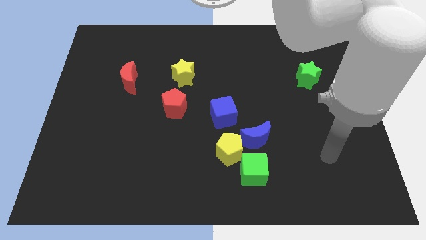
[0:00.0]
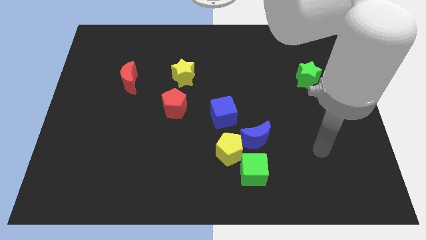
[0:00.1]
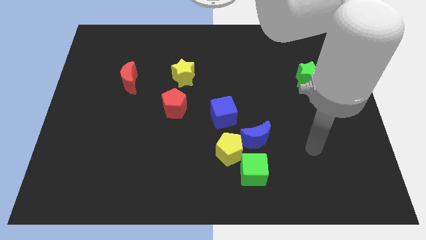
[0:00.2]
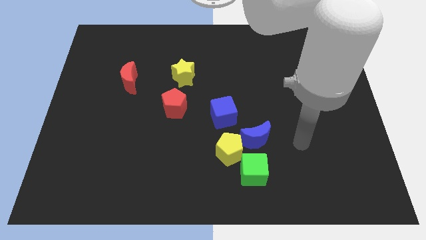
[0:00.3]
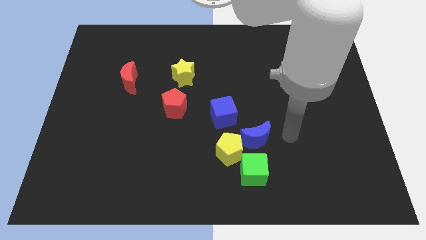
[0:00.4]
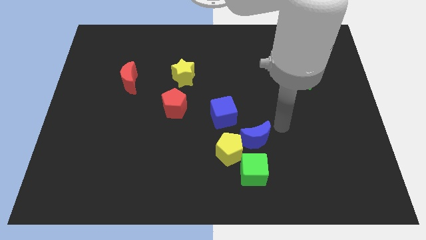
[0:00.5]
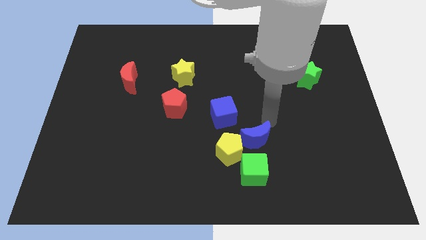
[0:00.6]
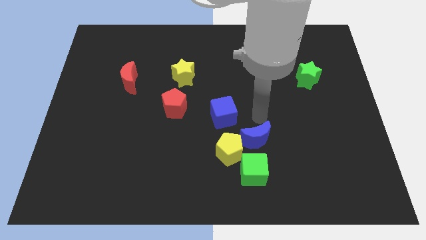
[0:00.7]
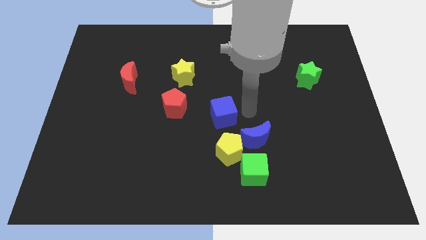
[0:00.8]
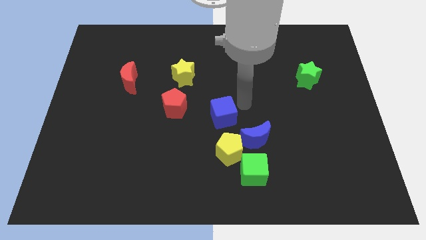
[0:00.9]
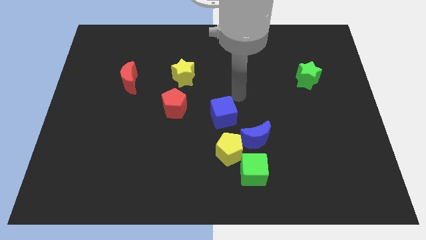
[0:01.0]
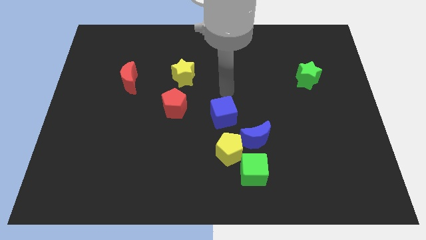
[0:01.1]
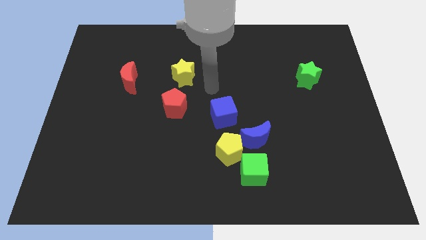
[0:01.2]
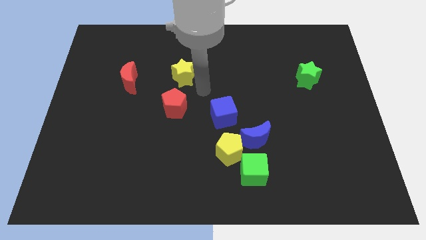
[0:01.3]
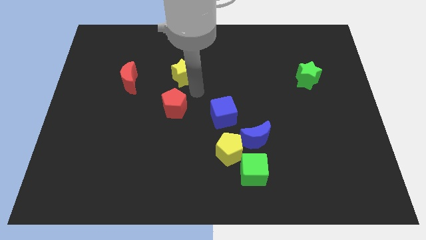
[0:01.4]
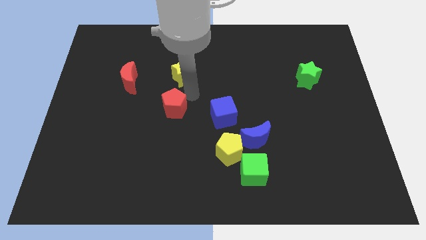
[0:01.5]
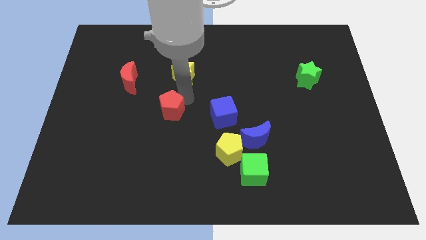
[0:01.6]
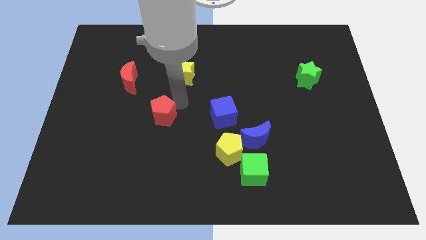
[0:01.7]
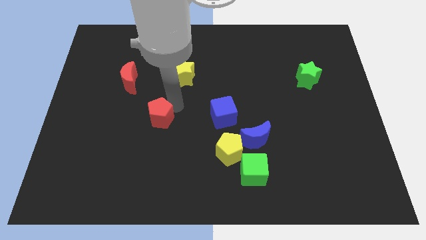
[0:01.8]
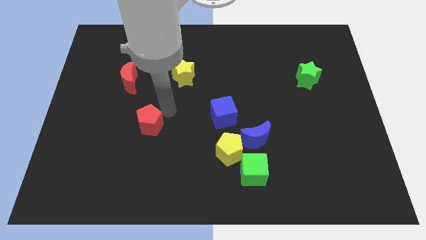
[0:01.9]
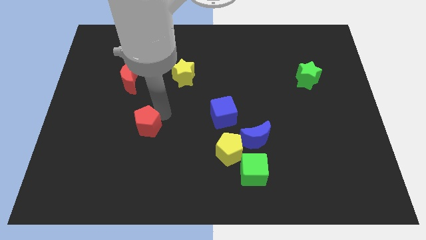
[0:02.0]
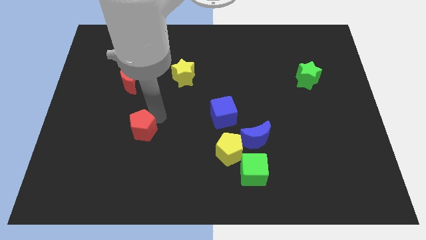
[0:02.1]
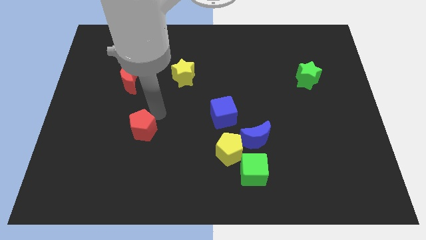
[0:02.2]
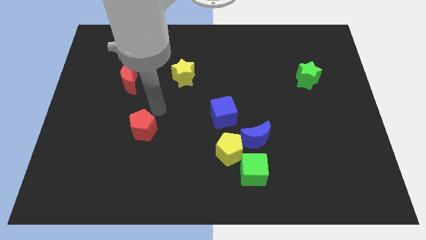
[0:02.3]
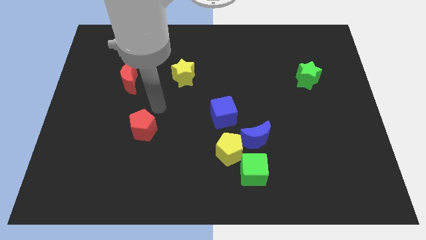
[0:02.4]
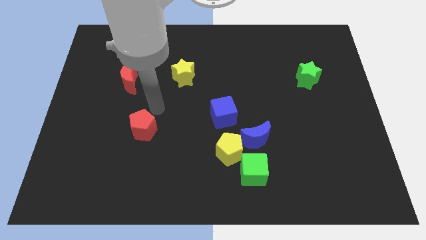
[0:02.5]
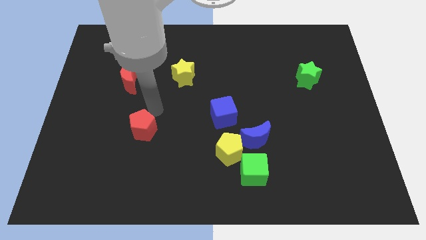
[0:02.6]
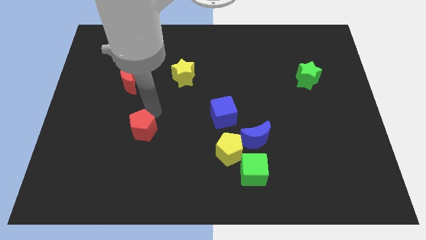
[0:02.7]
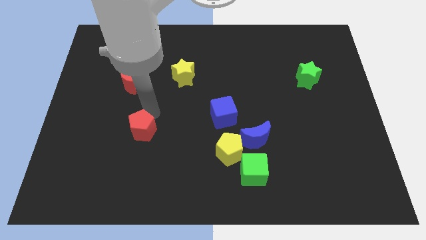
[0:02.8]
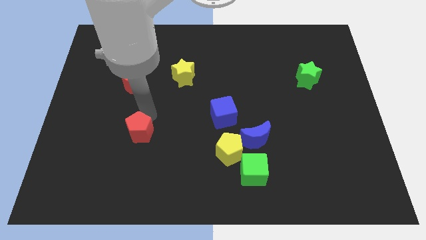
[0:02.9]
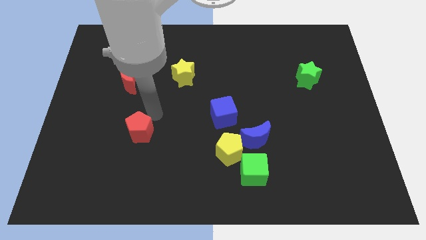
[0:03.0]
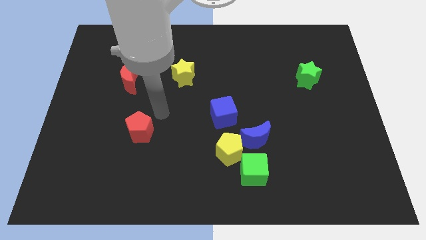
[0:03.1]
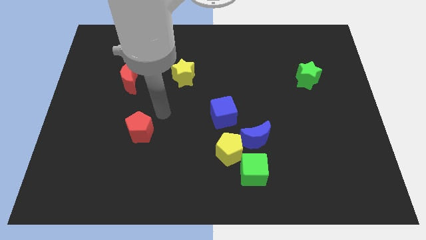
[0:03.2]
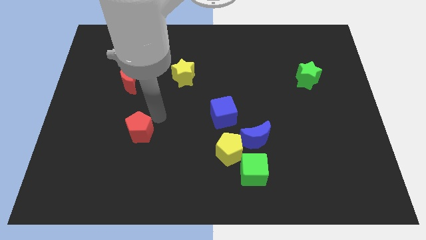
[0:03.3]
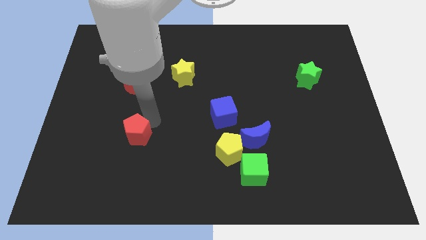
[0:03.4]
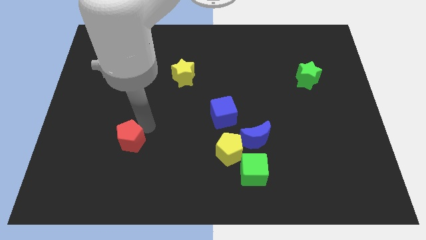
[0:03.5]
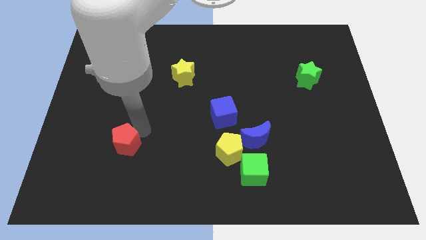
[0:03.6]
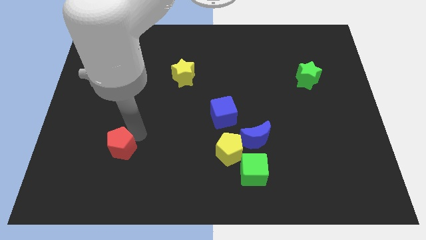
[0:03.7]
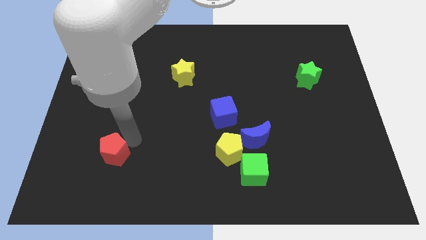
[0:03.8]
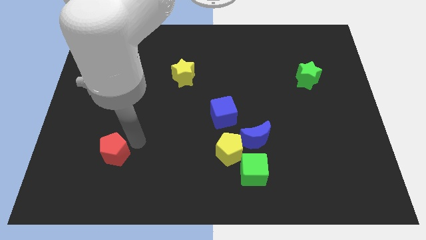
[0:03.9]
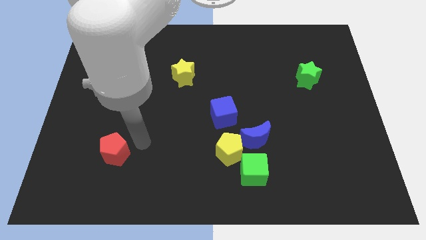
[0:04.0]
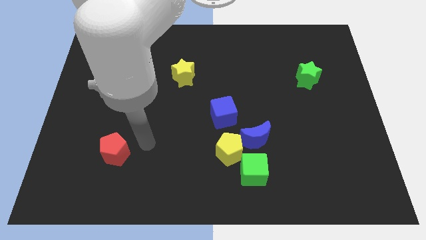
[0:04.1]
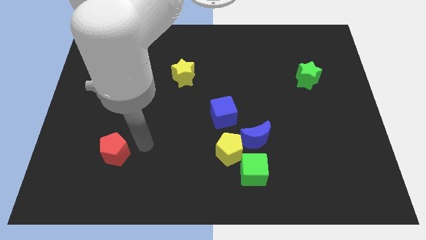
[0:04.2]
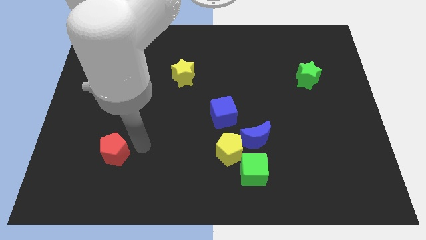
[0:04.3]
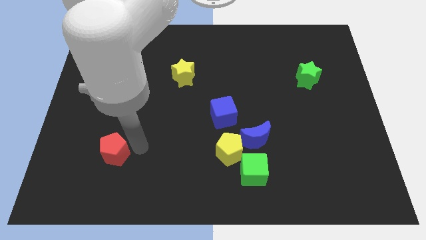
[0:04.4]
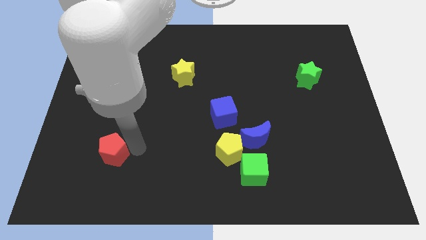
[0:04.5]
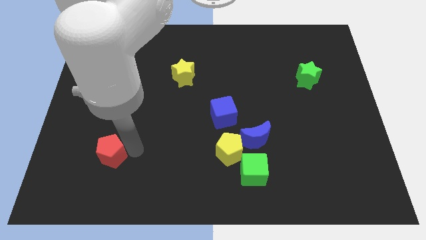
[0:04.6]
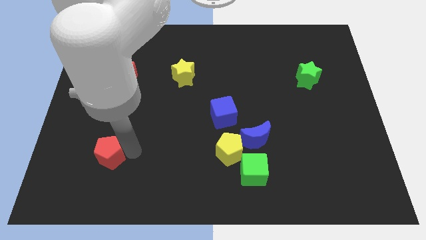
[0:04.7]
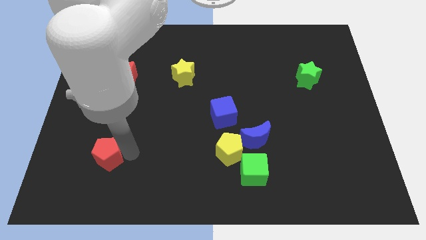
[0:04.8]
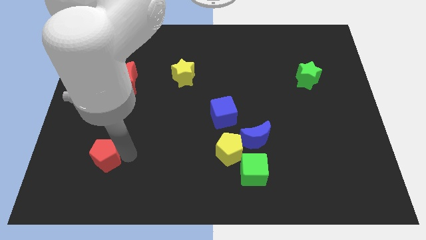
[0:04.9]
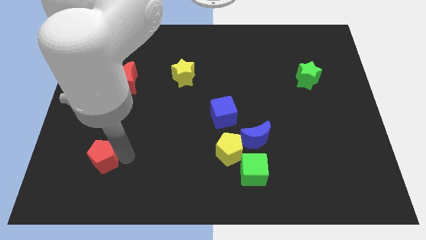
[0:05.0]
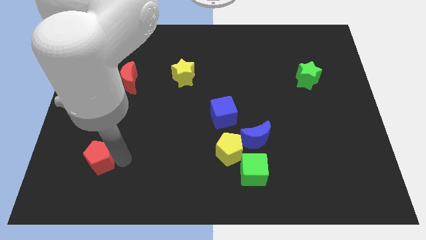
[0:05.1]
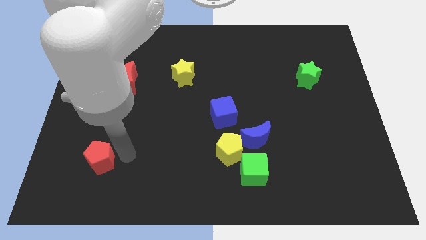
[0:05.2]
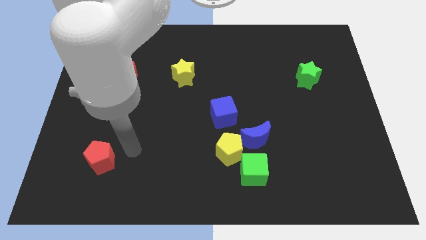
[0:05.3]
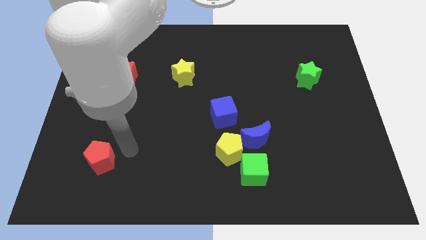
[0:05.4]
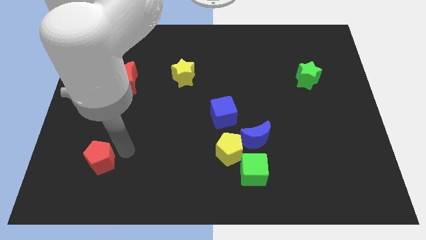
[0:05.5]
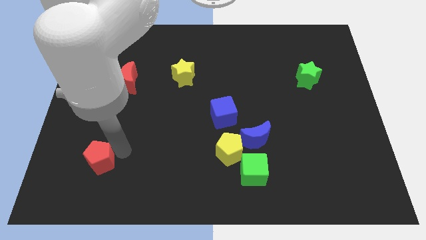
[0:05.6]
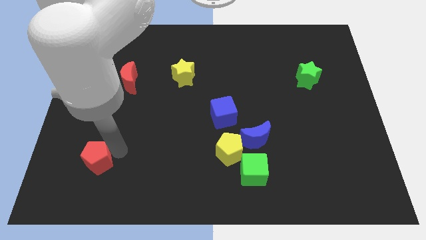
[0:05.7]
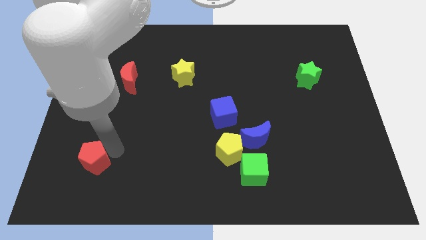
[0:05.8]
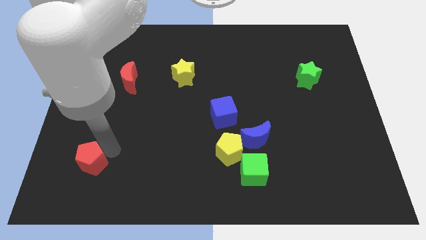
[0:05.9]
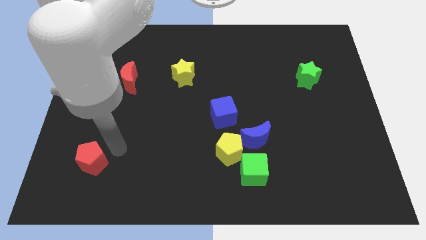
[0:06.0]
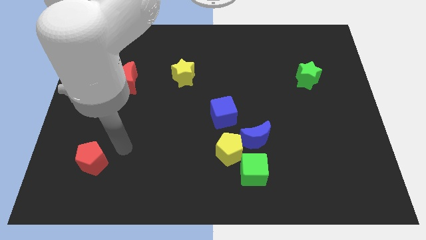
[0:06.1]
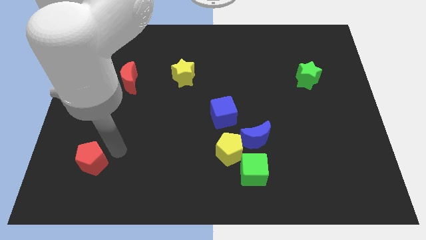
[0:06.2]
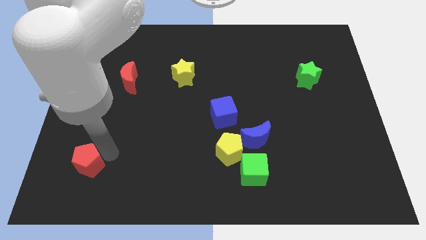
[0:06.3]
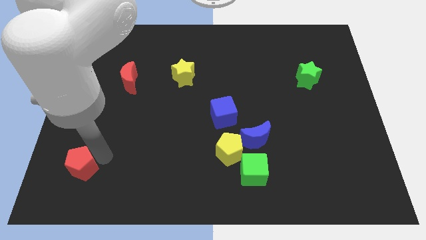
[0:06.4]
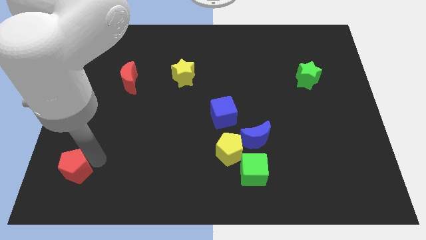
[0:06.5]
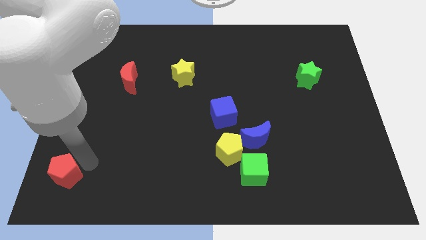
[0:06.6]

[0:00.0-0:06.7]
put the red pentagon to the bottom left
